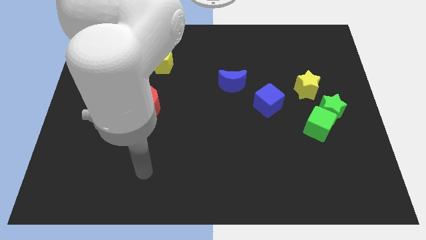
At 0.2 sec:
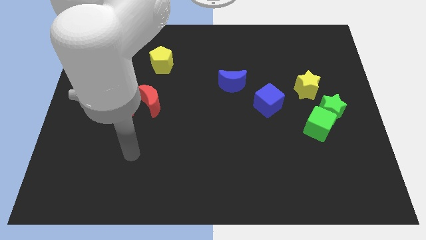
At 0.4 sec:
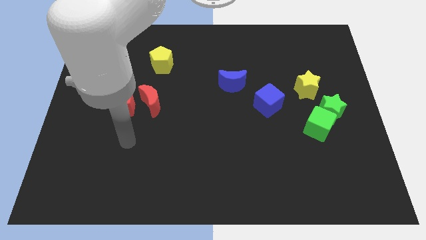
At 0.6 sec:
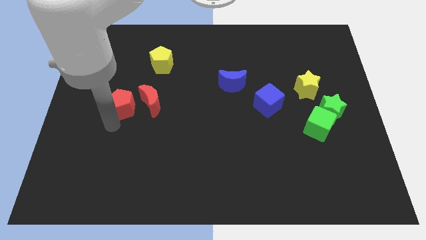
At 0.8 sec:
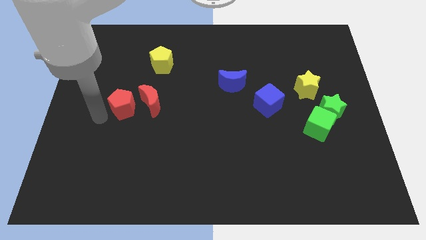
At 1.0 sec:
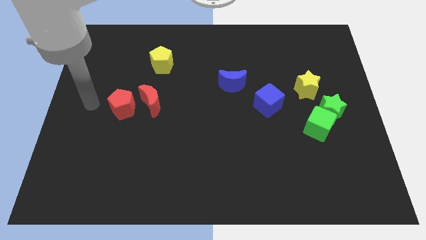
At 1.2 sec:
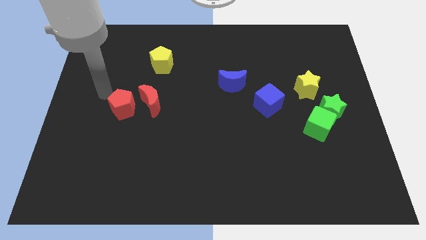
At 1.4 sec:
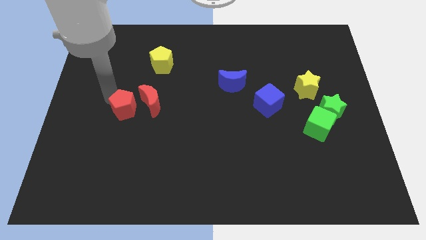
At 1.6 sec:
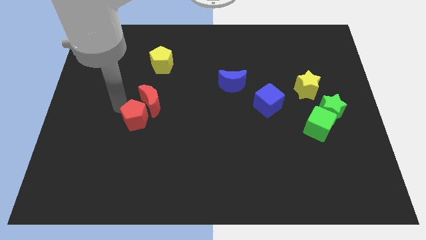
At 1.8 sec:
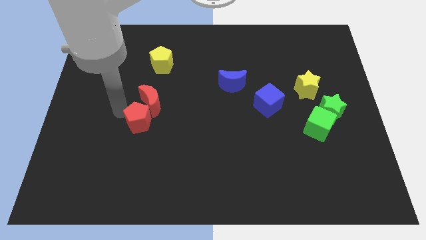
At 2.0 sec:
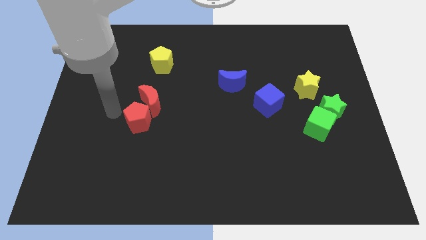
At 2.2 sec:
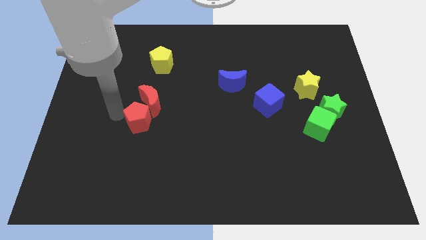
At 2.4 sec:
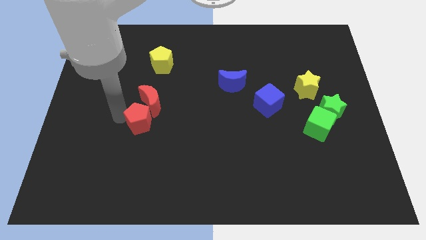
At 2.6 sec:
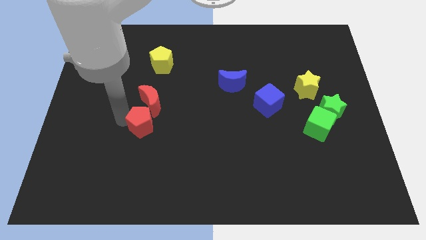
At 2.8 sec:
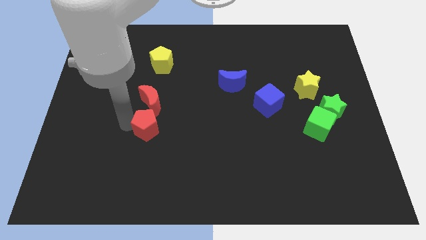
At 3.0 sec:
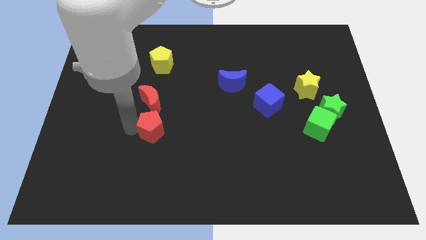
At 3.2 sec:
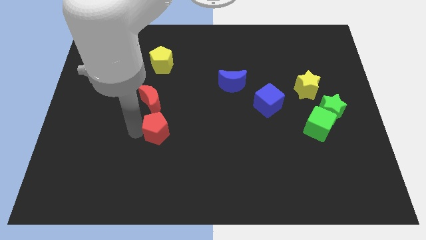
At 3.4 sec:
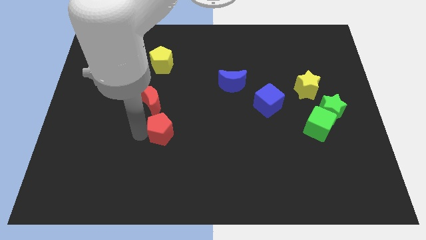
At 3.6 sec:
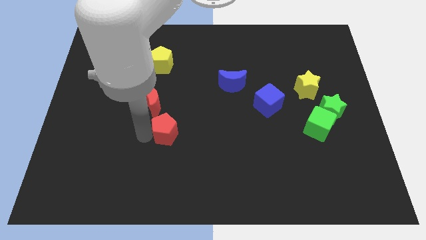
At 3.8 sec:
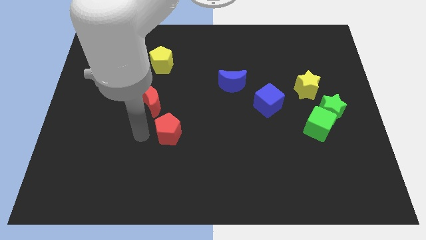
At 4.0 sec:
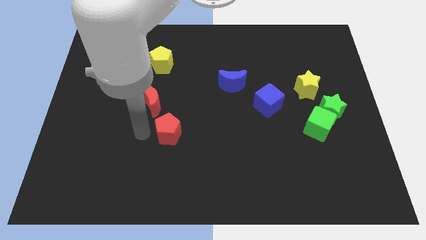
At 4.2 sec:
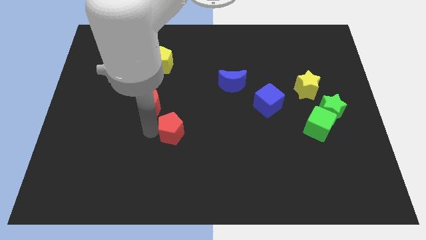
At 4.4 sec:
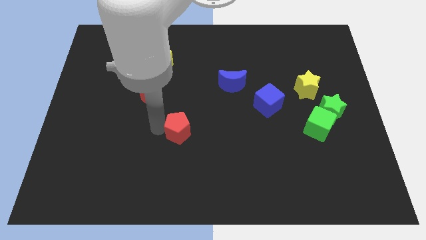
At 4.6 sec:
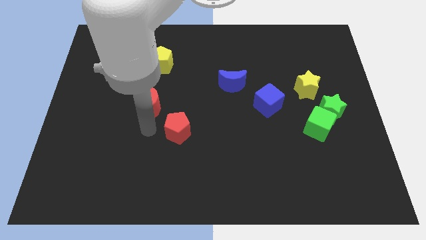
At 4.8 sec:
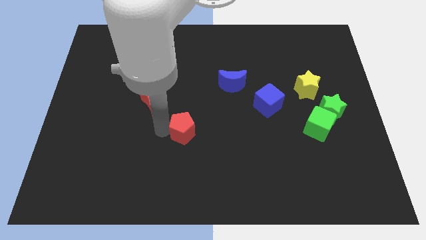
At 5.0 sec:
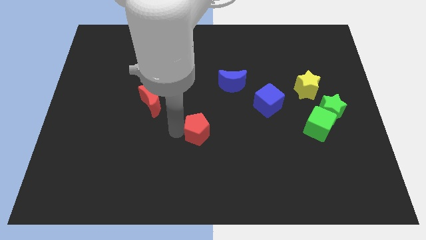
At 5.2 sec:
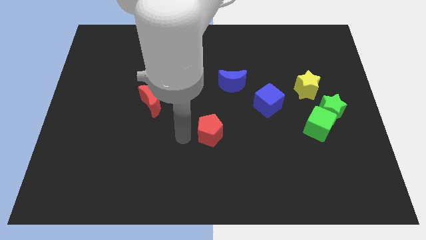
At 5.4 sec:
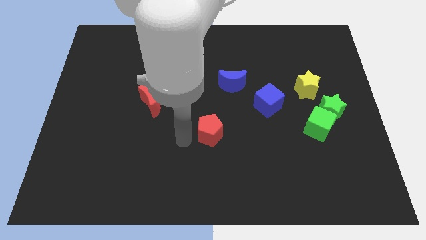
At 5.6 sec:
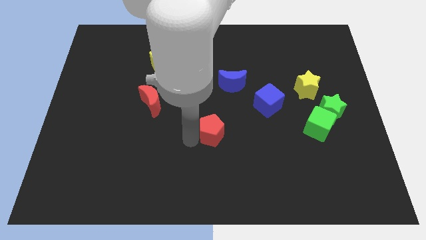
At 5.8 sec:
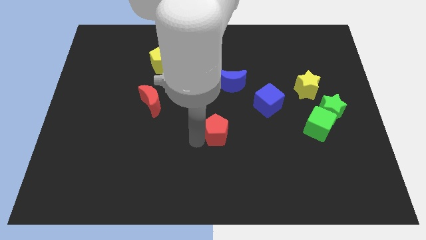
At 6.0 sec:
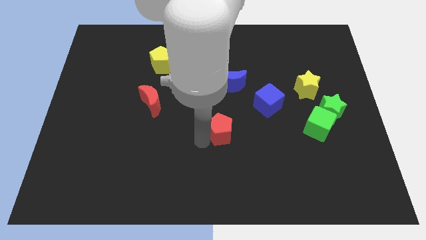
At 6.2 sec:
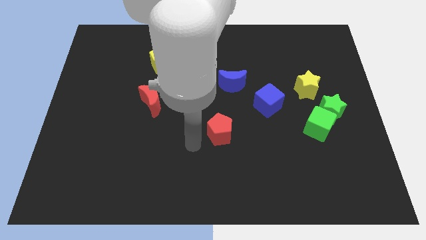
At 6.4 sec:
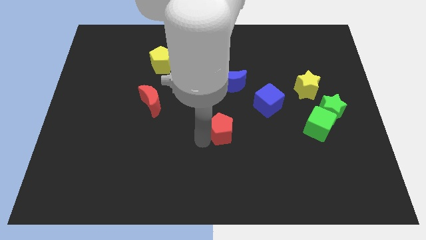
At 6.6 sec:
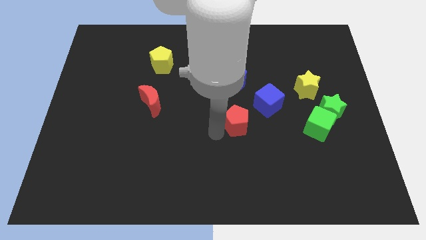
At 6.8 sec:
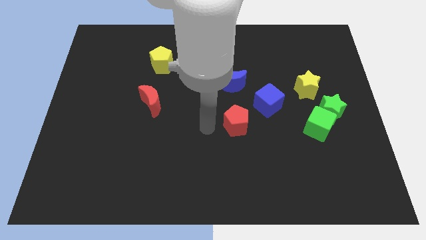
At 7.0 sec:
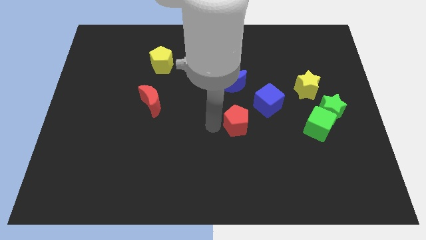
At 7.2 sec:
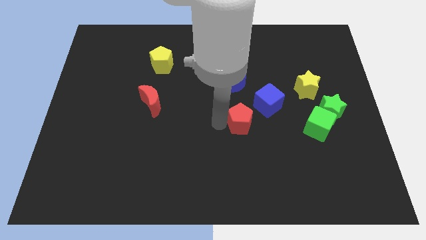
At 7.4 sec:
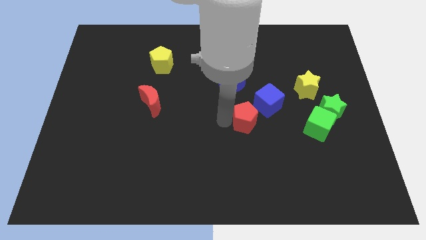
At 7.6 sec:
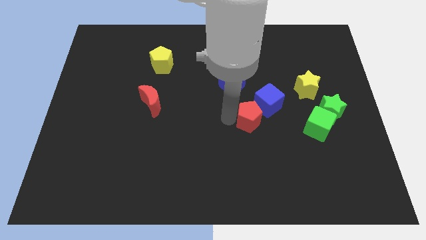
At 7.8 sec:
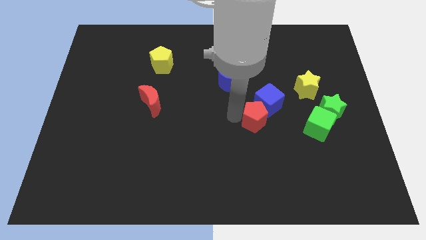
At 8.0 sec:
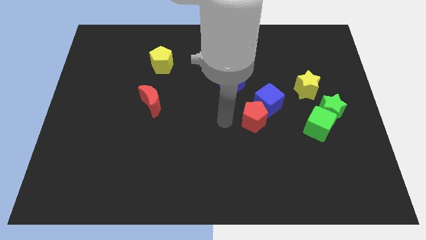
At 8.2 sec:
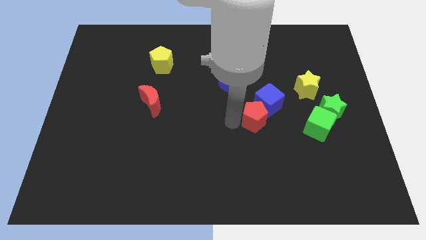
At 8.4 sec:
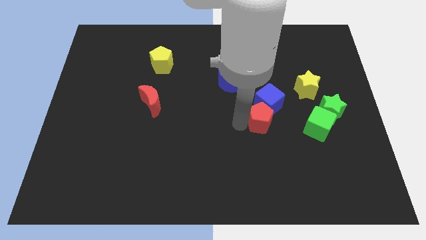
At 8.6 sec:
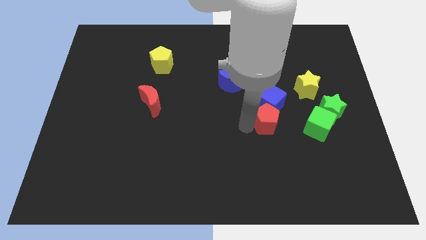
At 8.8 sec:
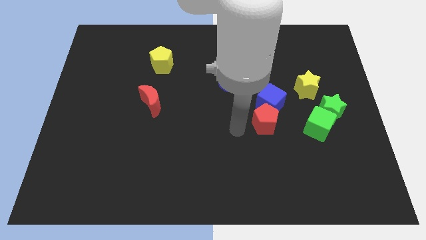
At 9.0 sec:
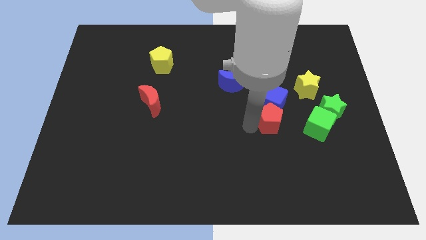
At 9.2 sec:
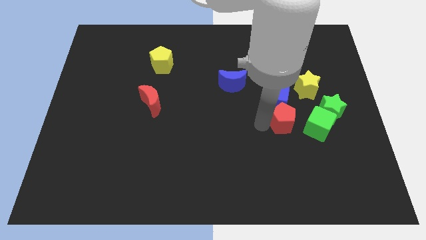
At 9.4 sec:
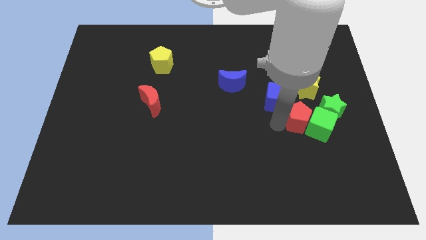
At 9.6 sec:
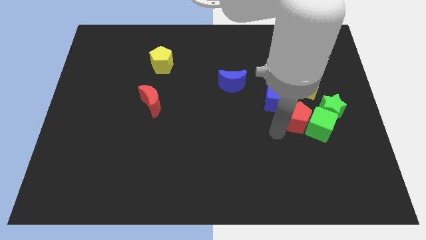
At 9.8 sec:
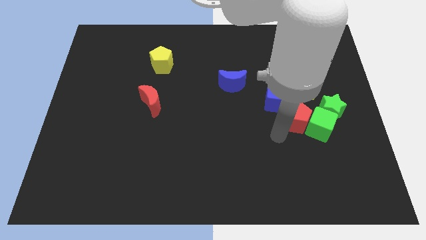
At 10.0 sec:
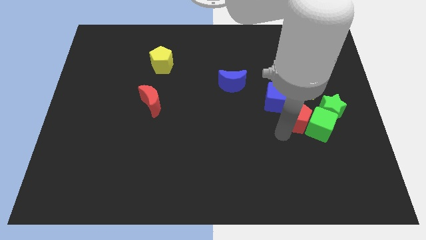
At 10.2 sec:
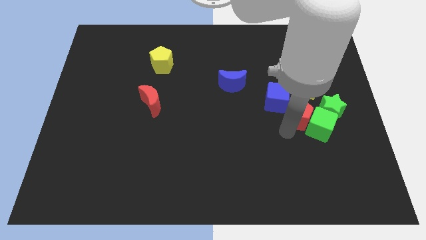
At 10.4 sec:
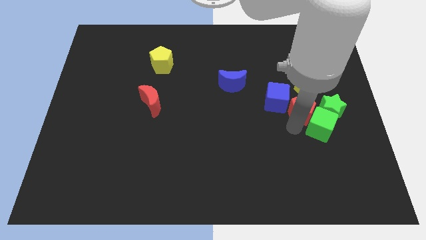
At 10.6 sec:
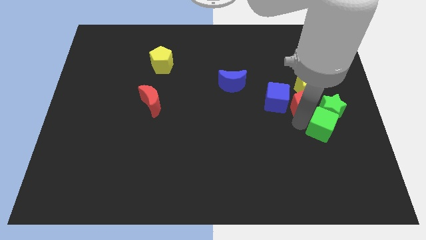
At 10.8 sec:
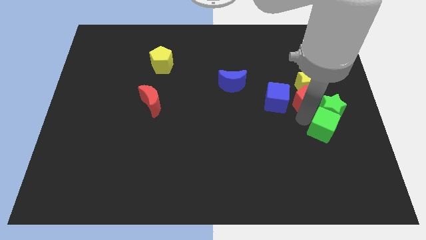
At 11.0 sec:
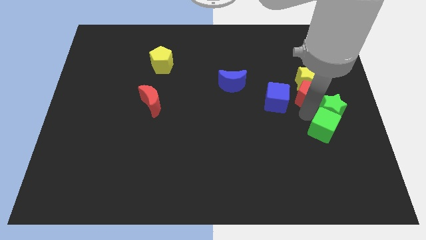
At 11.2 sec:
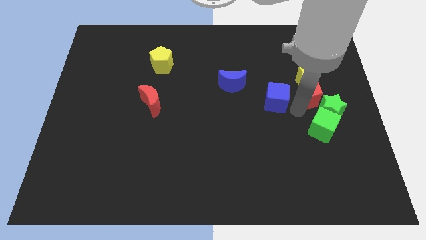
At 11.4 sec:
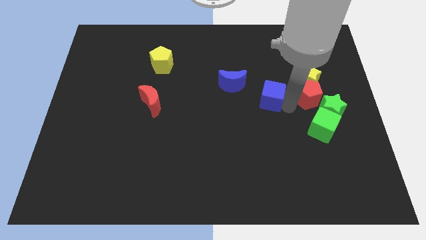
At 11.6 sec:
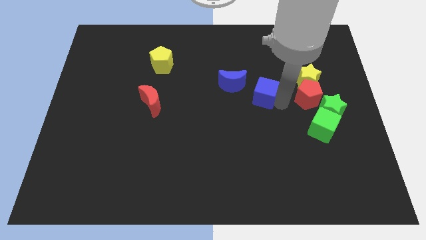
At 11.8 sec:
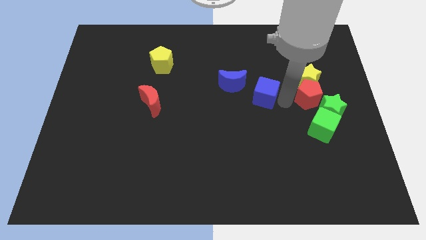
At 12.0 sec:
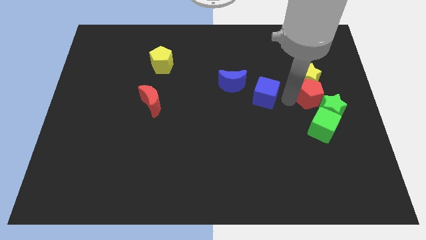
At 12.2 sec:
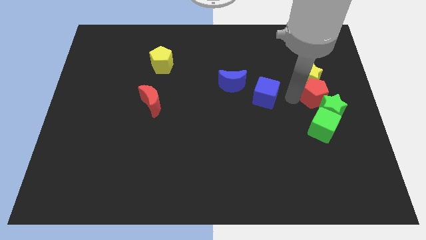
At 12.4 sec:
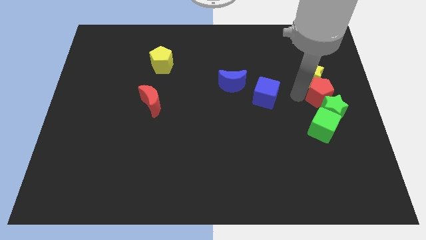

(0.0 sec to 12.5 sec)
push the red pentagon to the right side

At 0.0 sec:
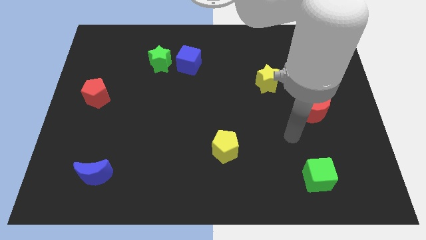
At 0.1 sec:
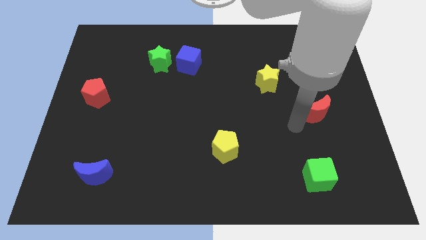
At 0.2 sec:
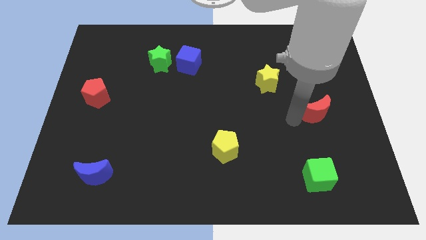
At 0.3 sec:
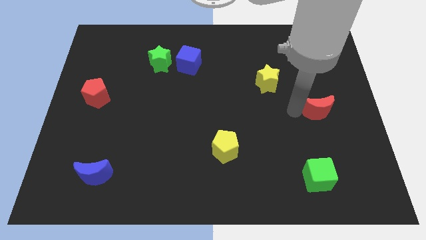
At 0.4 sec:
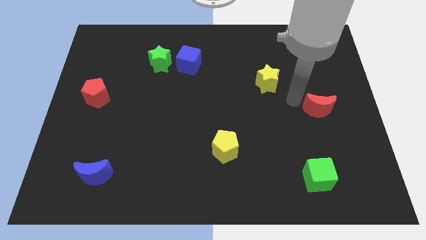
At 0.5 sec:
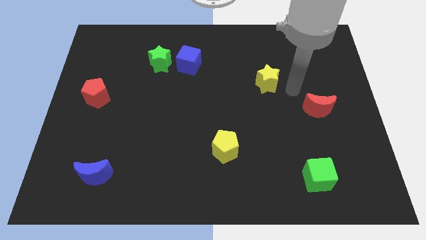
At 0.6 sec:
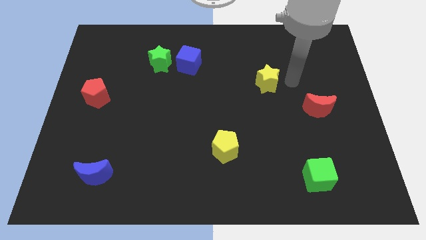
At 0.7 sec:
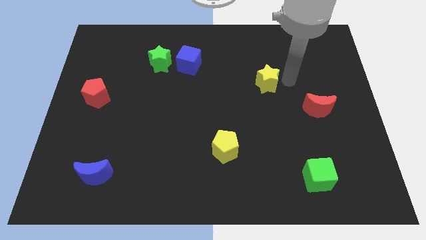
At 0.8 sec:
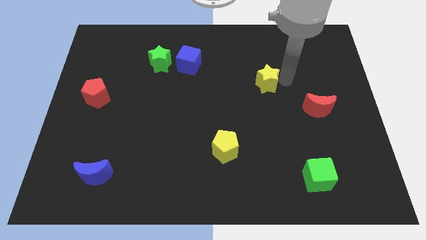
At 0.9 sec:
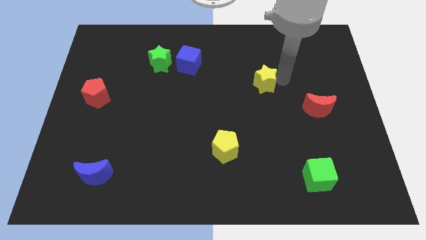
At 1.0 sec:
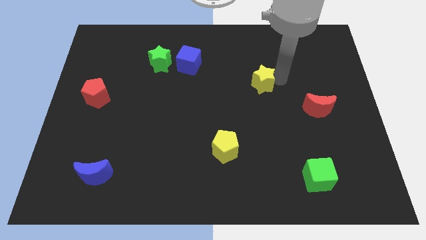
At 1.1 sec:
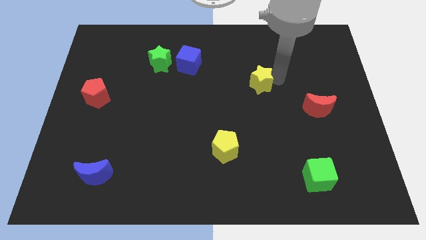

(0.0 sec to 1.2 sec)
push the yellow star to the center

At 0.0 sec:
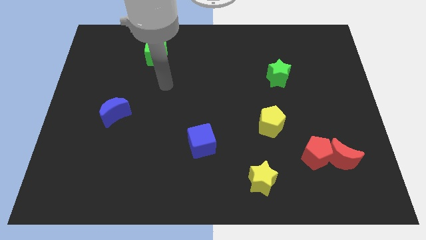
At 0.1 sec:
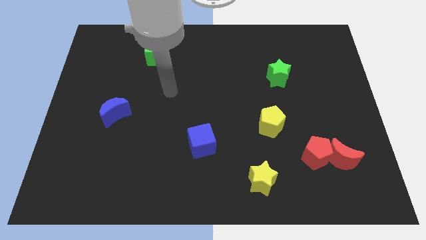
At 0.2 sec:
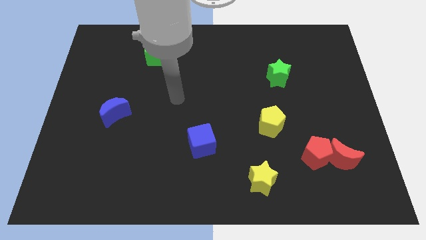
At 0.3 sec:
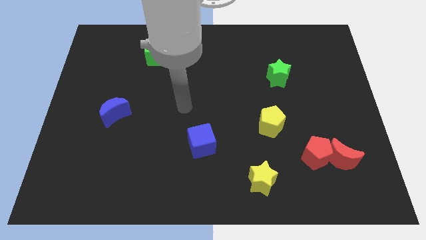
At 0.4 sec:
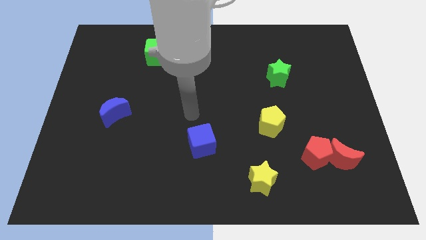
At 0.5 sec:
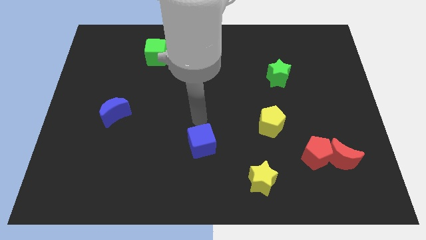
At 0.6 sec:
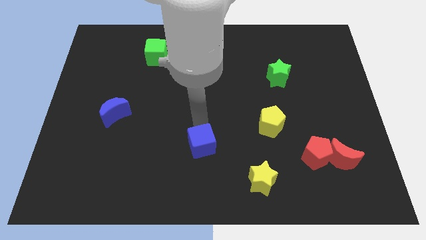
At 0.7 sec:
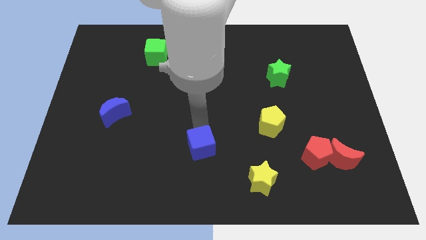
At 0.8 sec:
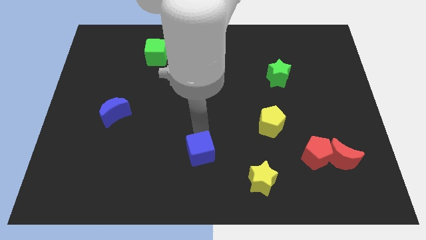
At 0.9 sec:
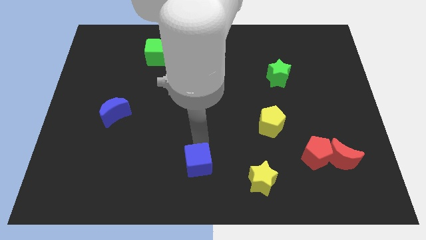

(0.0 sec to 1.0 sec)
put the blue cube to the bottom
